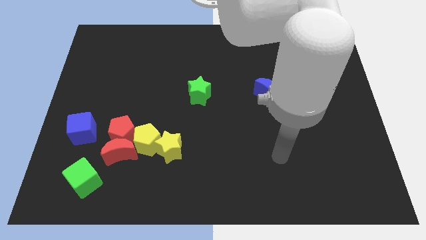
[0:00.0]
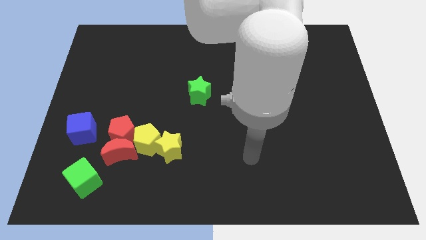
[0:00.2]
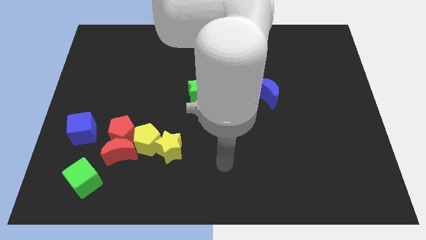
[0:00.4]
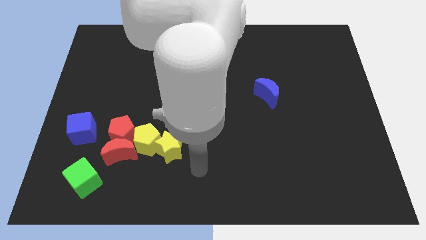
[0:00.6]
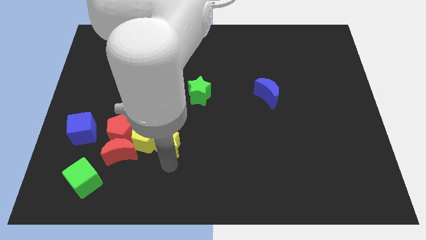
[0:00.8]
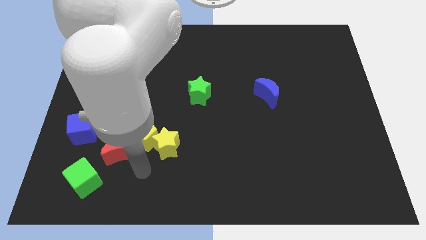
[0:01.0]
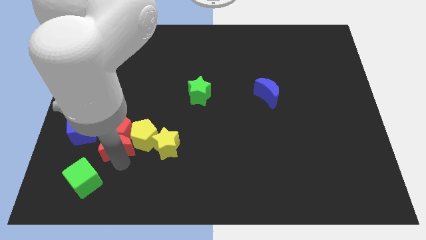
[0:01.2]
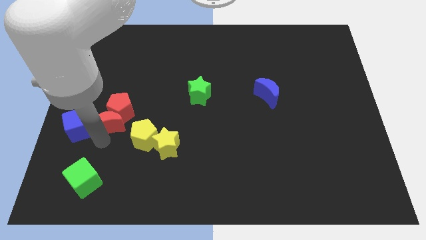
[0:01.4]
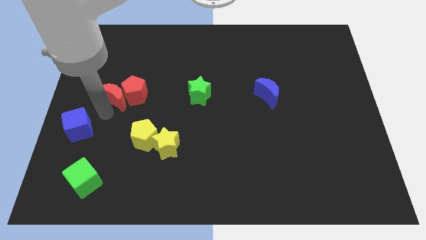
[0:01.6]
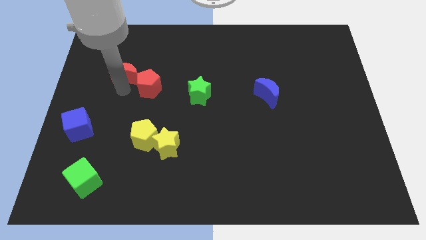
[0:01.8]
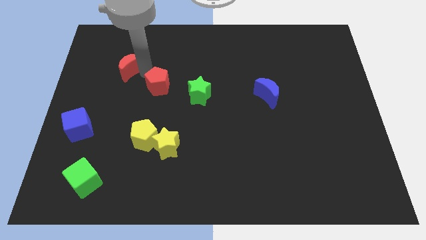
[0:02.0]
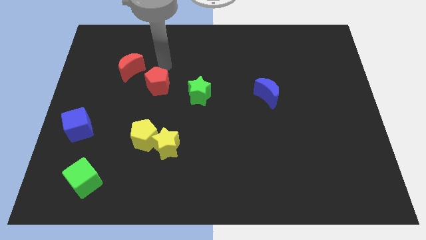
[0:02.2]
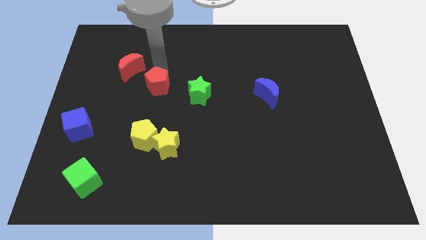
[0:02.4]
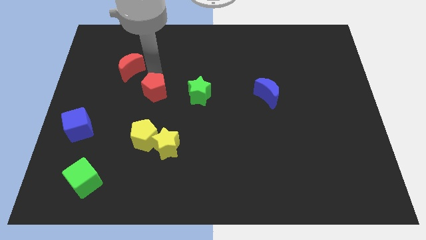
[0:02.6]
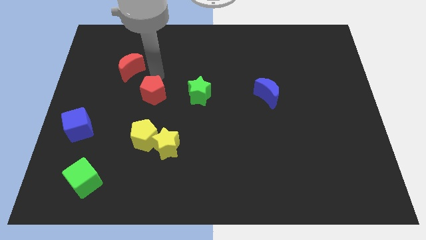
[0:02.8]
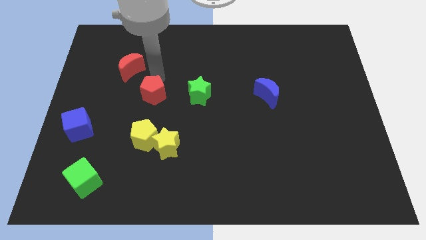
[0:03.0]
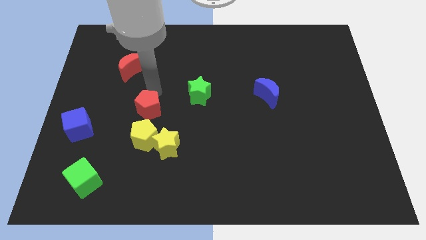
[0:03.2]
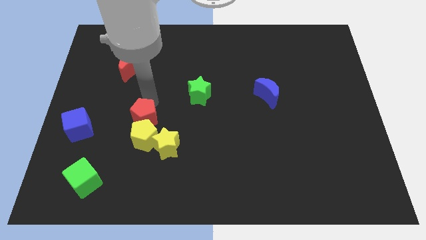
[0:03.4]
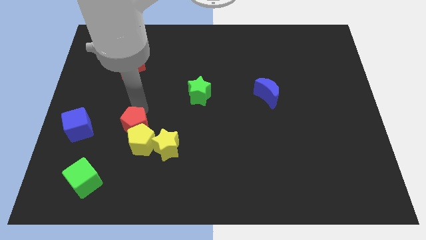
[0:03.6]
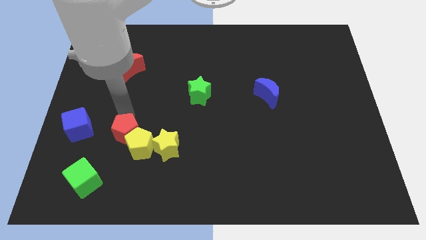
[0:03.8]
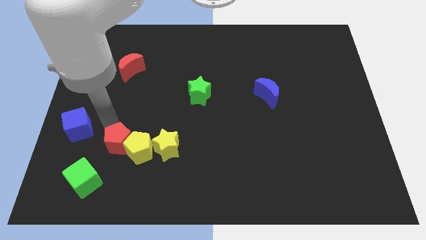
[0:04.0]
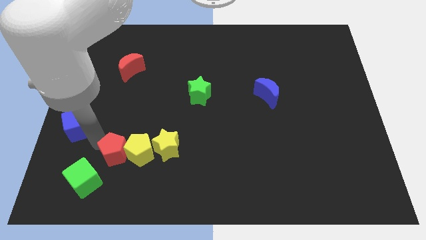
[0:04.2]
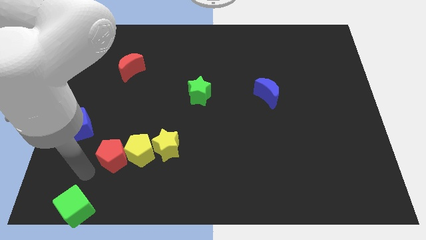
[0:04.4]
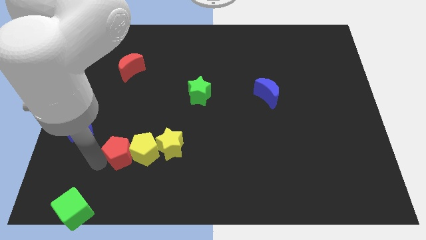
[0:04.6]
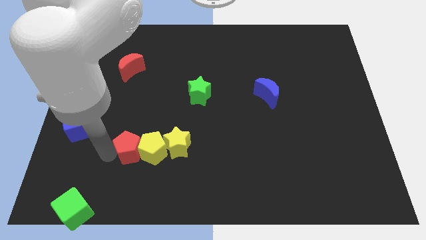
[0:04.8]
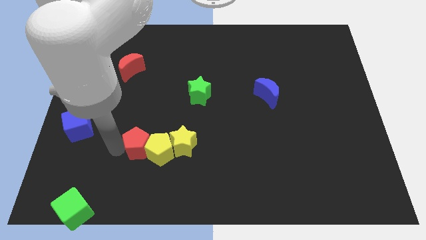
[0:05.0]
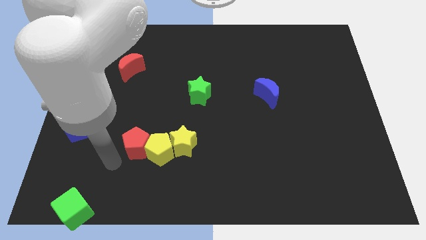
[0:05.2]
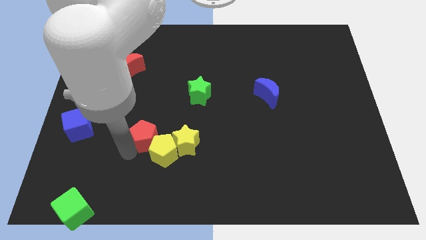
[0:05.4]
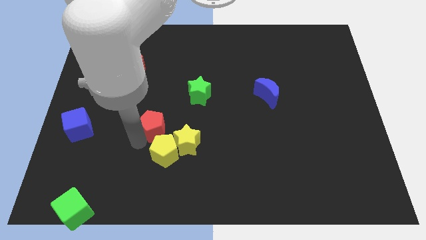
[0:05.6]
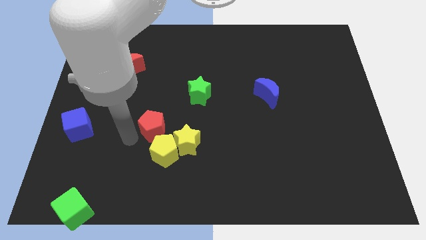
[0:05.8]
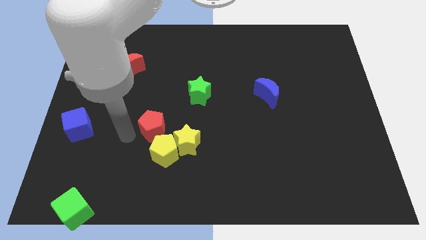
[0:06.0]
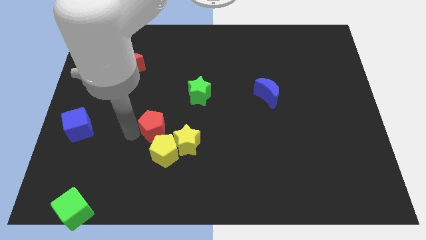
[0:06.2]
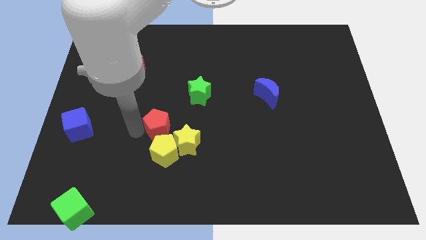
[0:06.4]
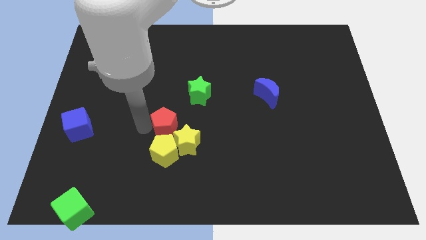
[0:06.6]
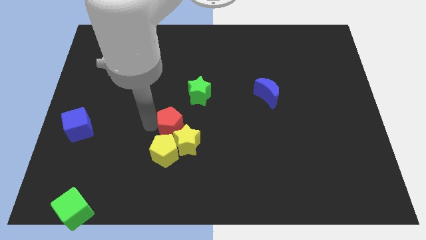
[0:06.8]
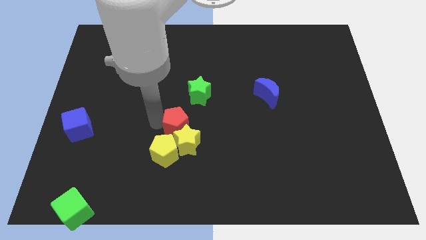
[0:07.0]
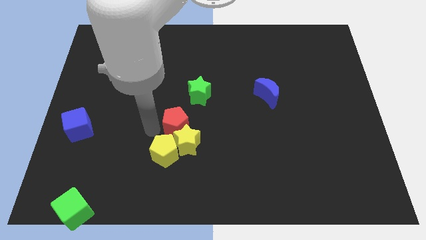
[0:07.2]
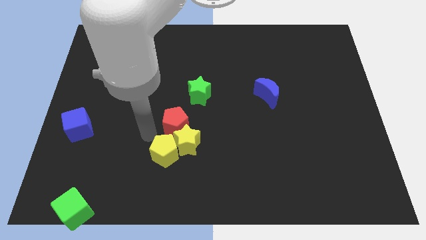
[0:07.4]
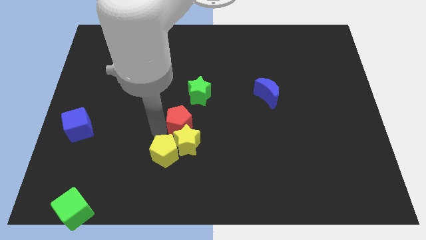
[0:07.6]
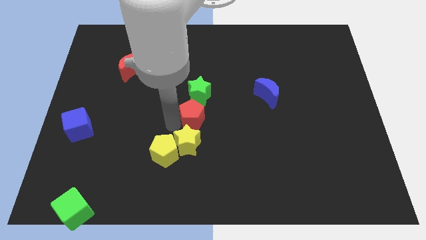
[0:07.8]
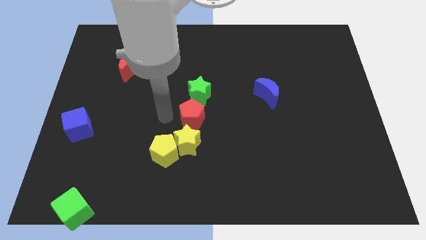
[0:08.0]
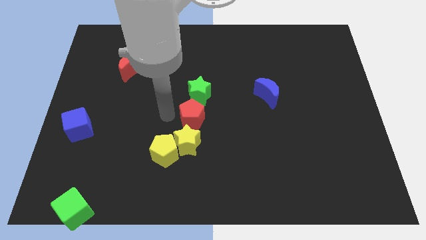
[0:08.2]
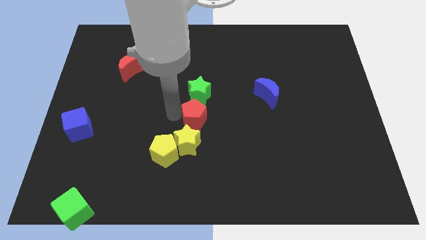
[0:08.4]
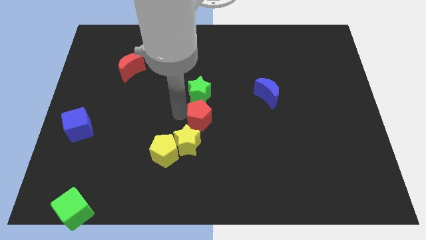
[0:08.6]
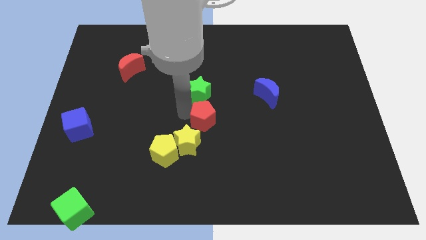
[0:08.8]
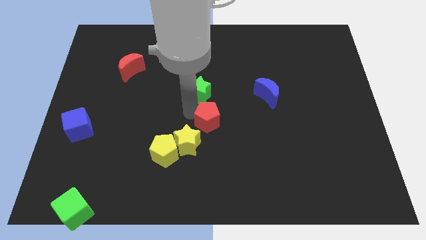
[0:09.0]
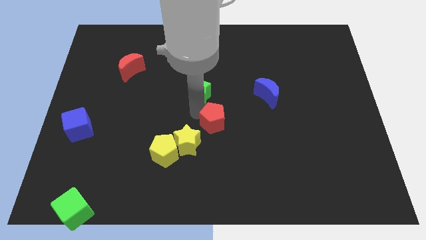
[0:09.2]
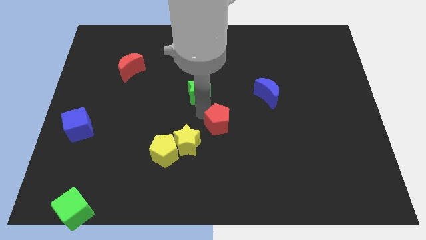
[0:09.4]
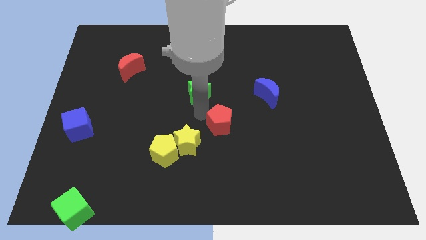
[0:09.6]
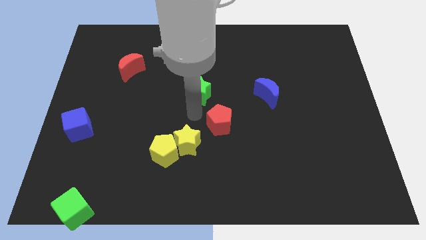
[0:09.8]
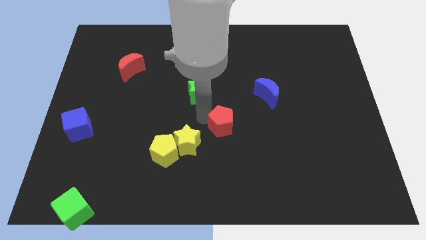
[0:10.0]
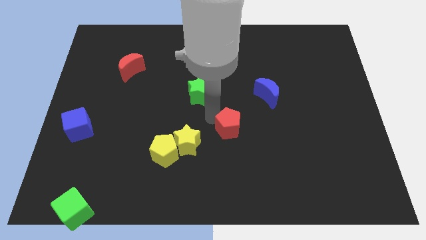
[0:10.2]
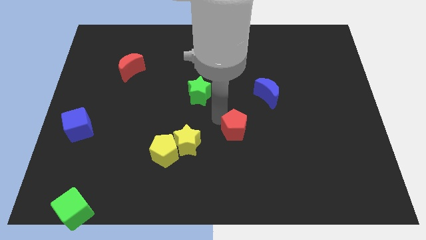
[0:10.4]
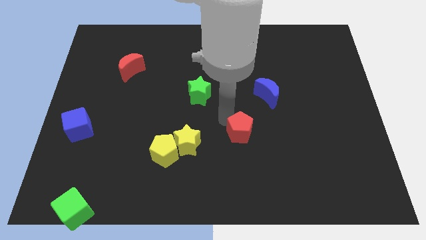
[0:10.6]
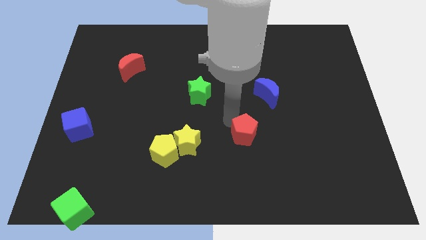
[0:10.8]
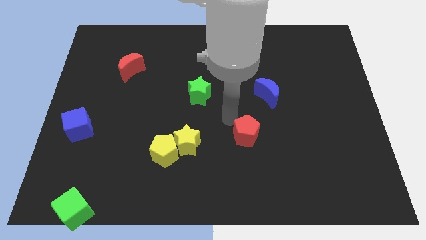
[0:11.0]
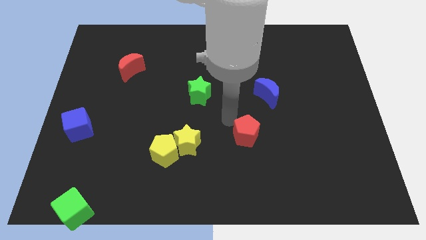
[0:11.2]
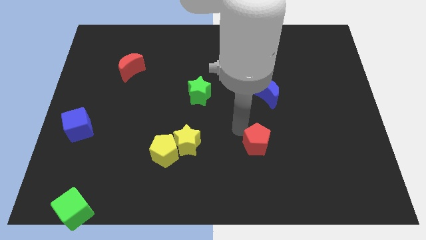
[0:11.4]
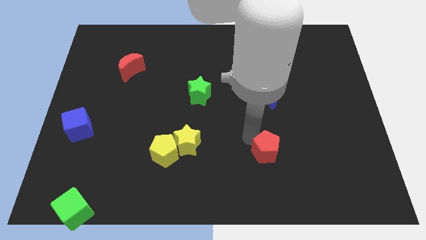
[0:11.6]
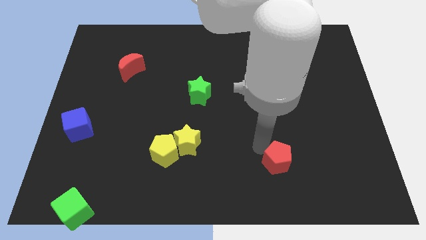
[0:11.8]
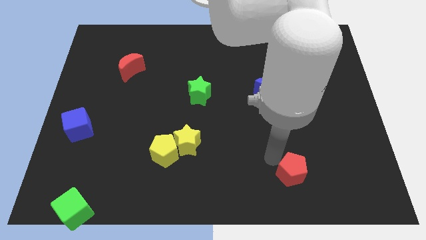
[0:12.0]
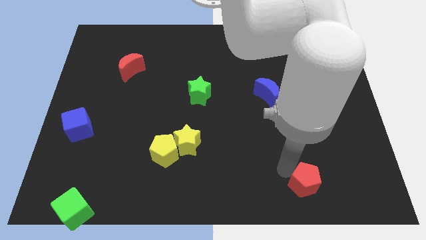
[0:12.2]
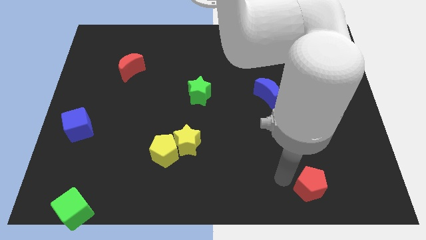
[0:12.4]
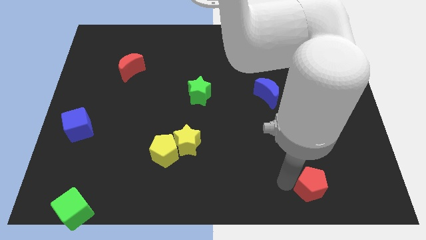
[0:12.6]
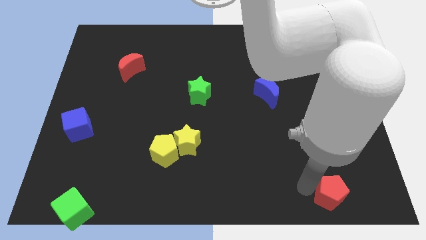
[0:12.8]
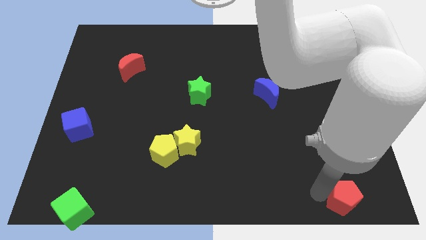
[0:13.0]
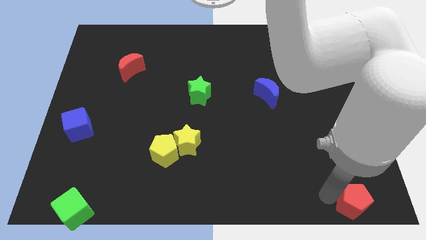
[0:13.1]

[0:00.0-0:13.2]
push the red pentagon to the bottom right of the board

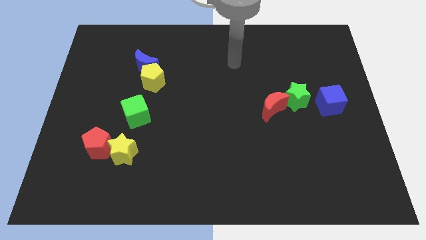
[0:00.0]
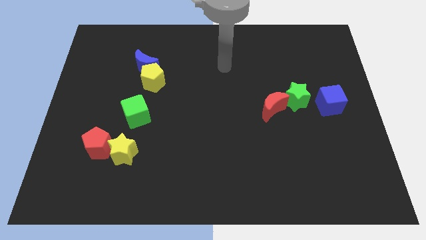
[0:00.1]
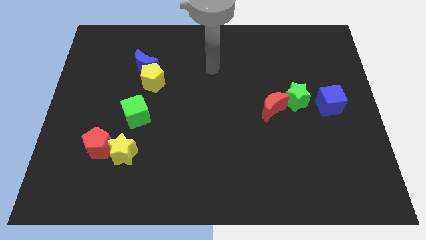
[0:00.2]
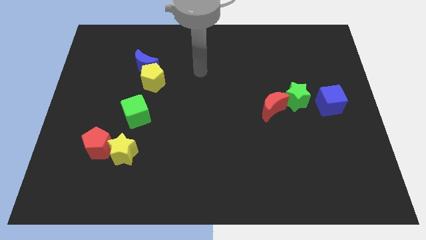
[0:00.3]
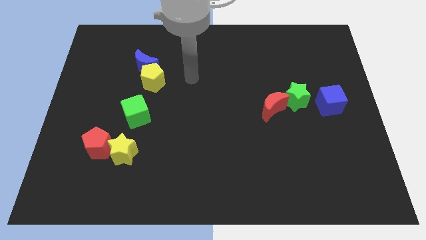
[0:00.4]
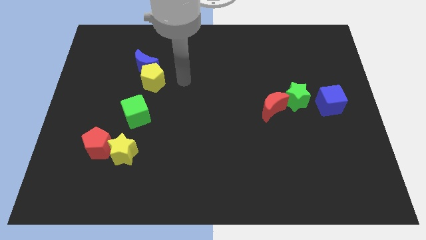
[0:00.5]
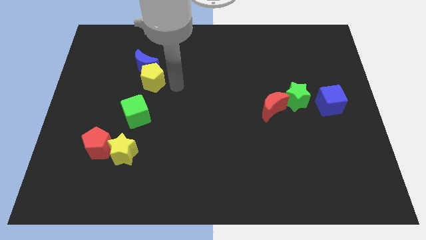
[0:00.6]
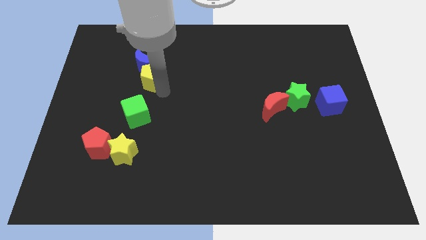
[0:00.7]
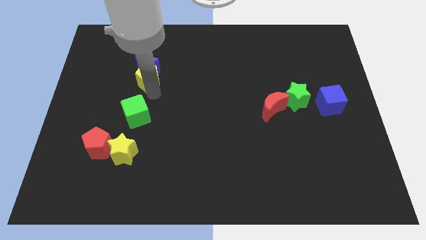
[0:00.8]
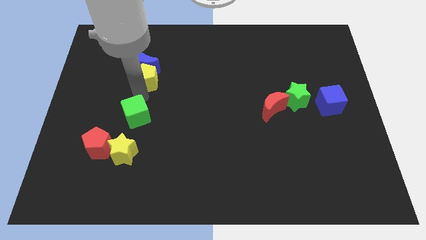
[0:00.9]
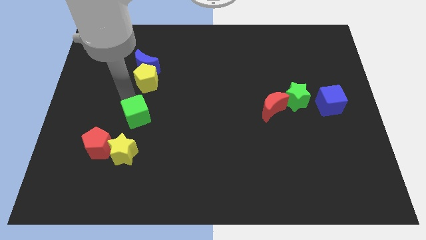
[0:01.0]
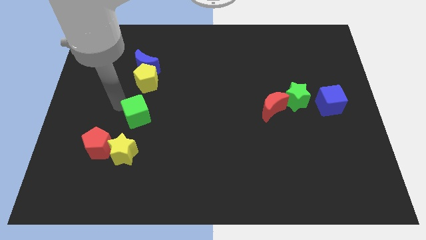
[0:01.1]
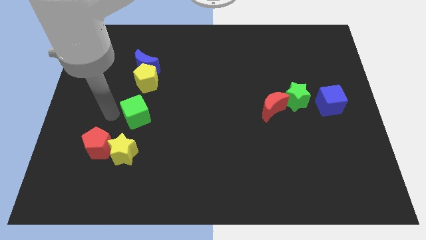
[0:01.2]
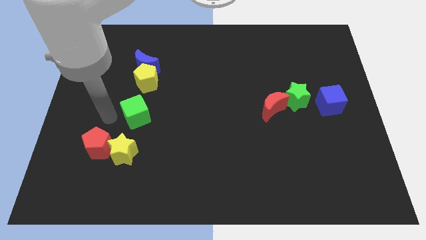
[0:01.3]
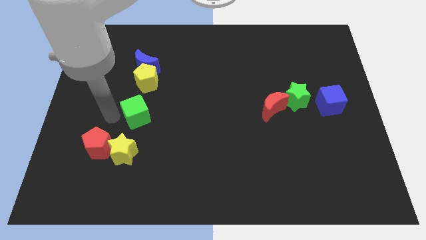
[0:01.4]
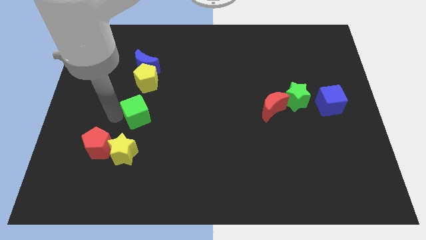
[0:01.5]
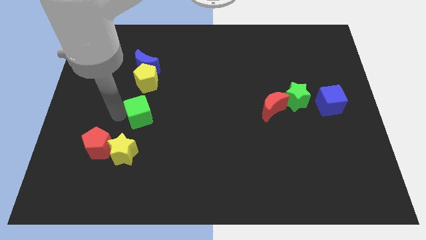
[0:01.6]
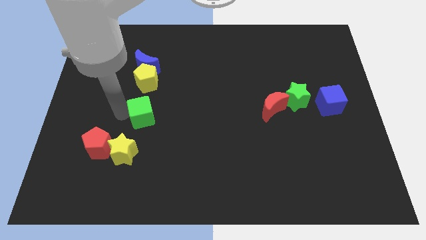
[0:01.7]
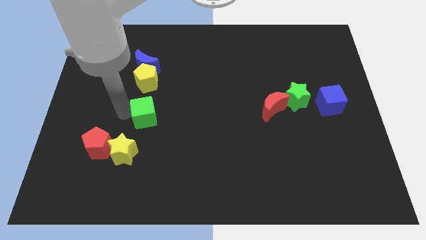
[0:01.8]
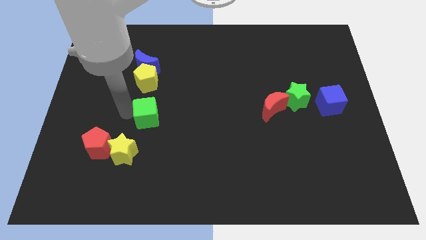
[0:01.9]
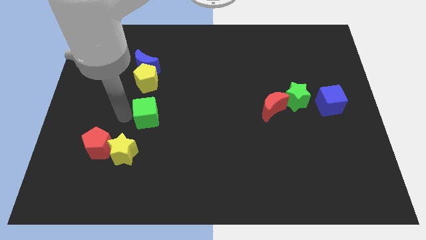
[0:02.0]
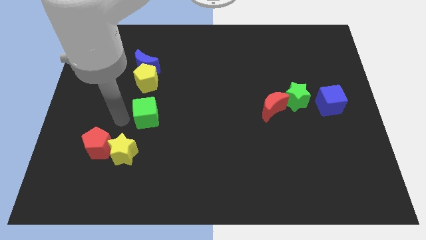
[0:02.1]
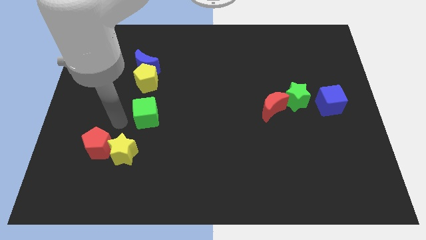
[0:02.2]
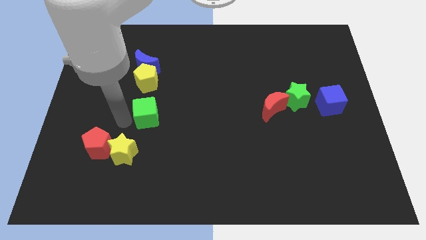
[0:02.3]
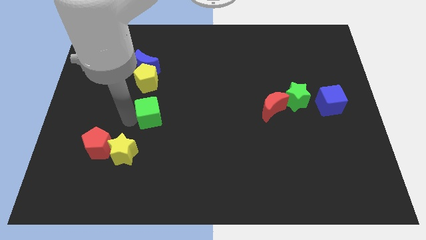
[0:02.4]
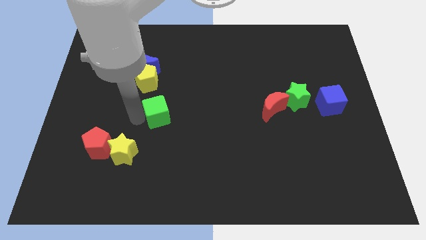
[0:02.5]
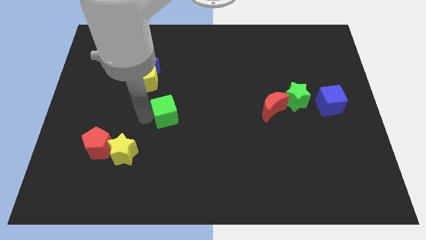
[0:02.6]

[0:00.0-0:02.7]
push the green cube to the middle
